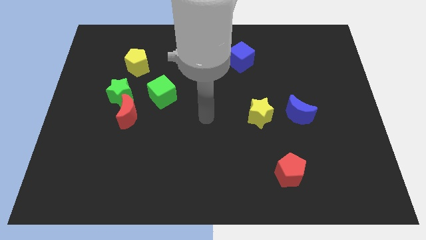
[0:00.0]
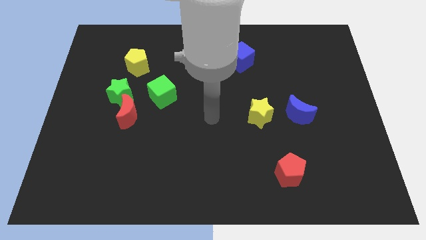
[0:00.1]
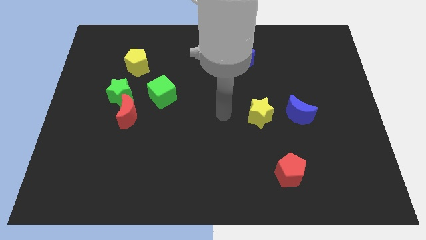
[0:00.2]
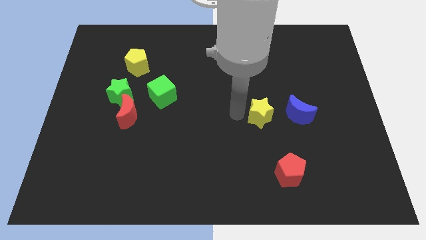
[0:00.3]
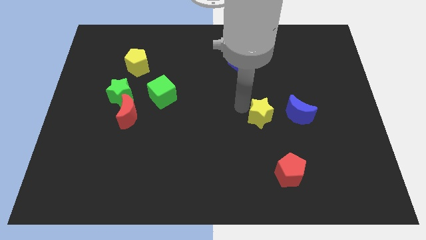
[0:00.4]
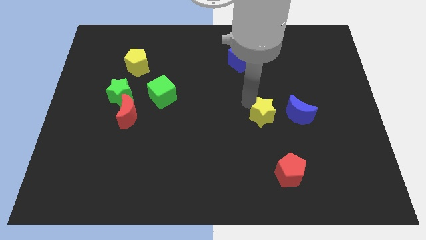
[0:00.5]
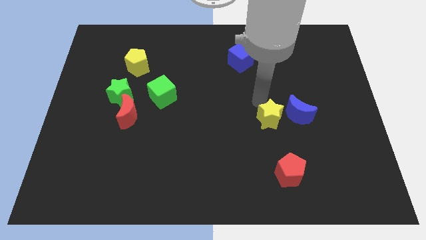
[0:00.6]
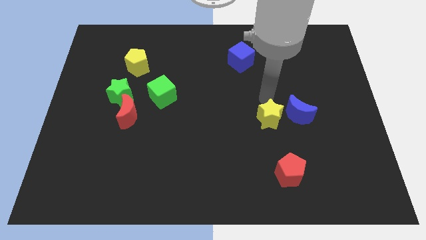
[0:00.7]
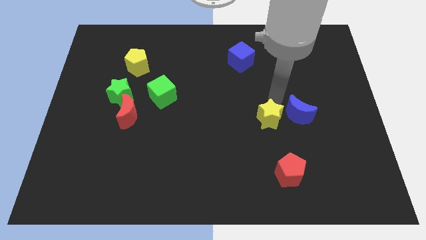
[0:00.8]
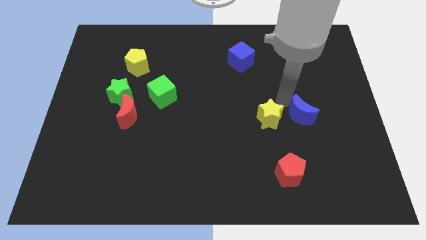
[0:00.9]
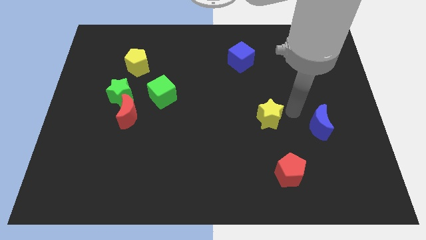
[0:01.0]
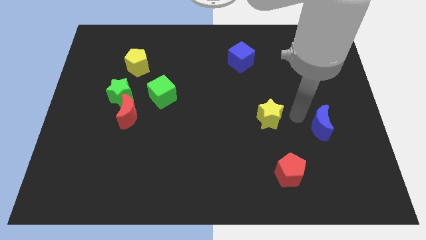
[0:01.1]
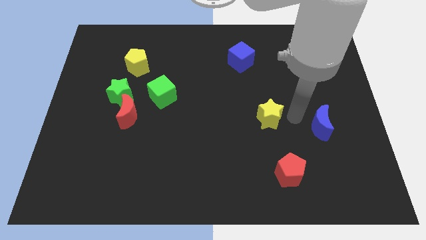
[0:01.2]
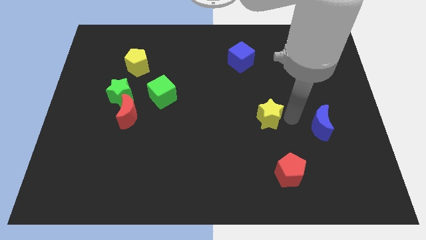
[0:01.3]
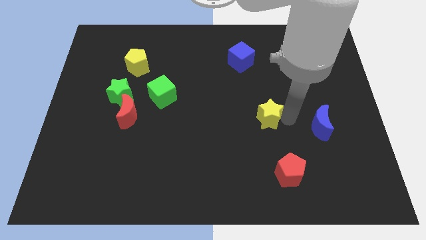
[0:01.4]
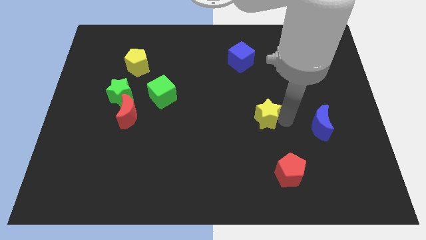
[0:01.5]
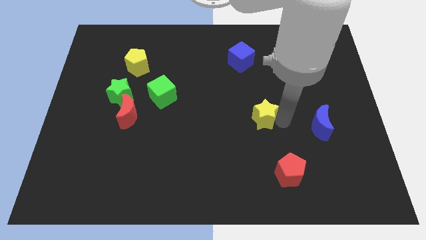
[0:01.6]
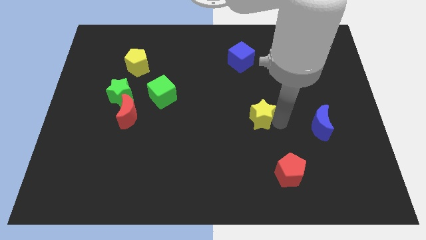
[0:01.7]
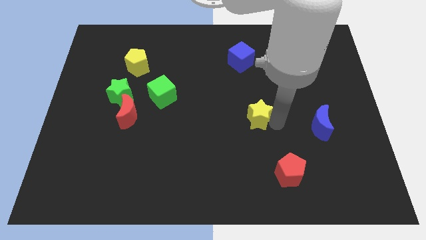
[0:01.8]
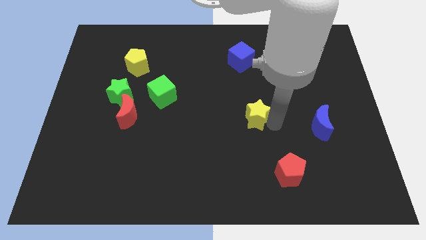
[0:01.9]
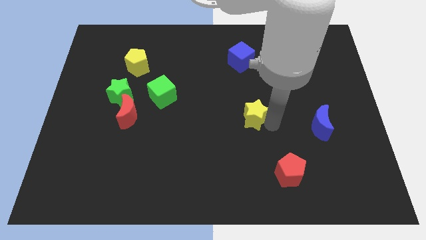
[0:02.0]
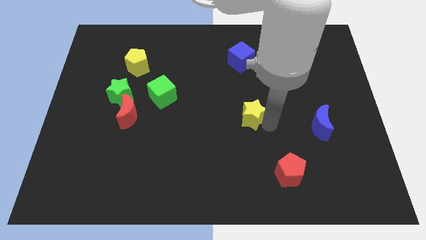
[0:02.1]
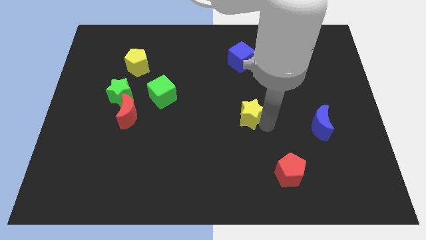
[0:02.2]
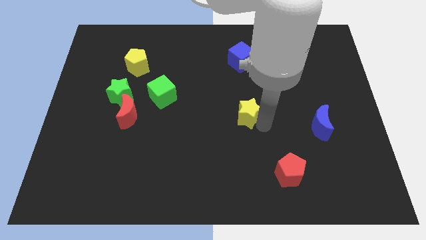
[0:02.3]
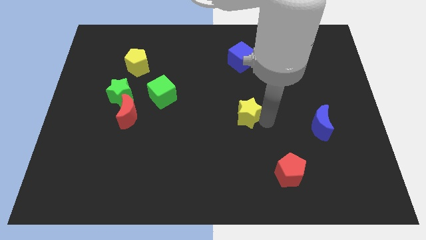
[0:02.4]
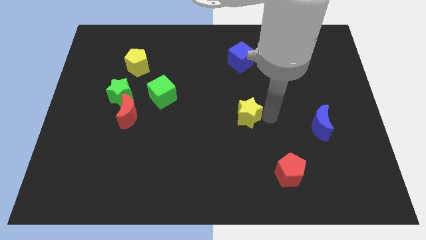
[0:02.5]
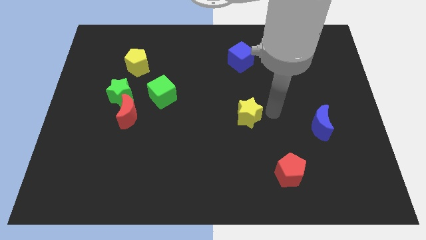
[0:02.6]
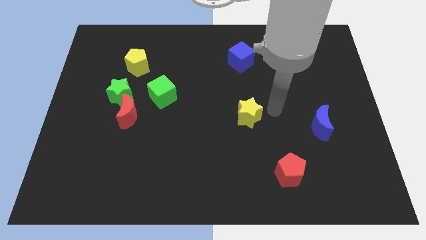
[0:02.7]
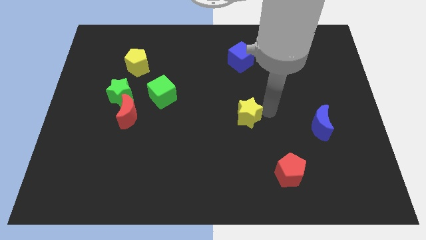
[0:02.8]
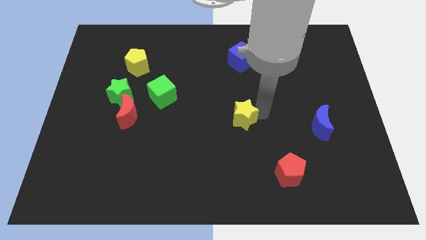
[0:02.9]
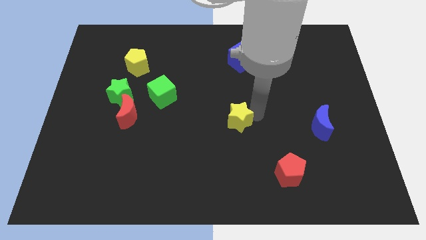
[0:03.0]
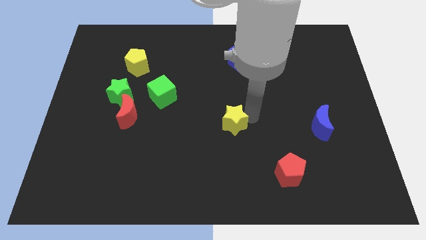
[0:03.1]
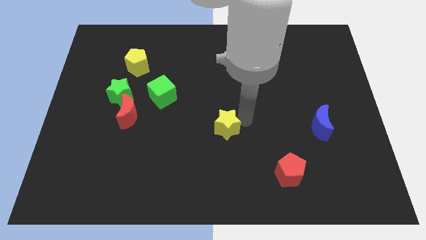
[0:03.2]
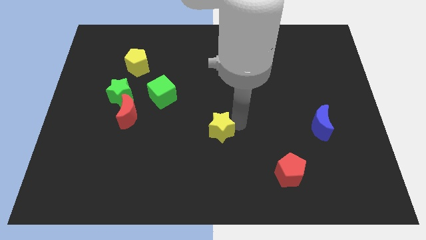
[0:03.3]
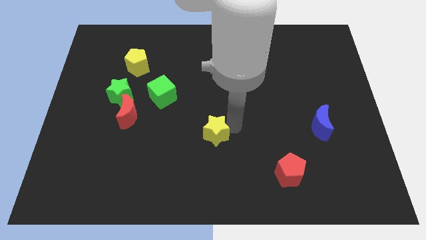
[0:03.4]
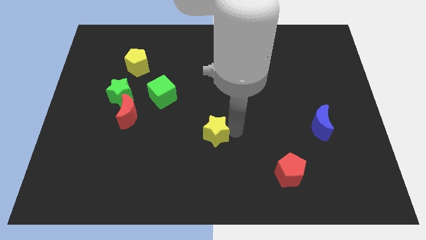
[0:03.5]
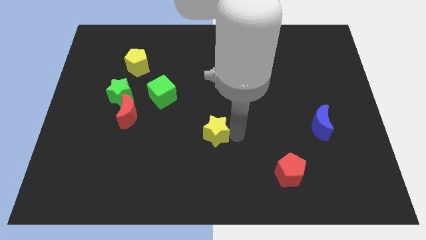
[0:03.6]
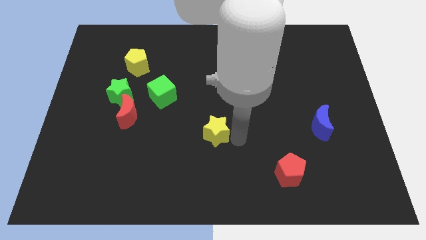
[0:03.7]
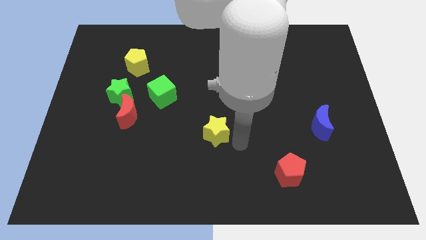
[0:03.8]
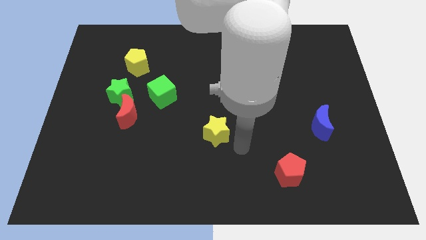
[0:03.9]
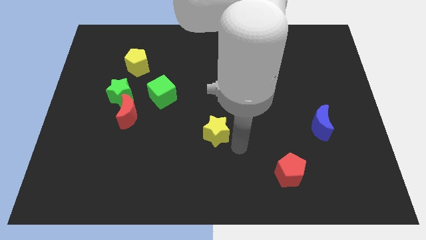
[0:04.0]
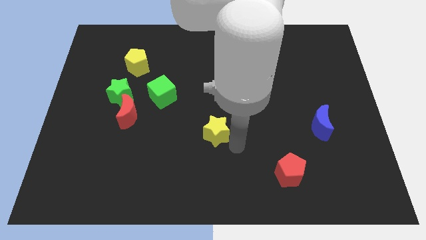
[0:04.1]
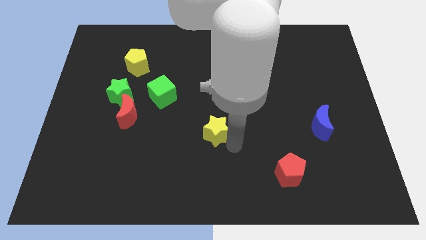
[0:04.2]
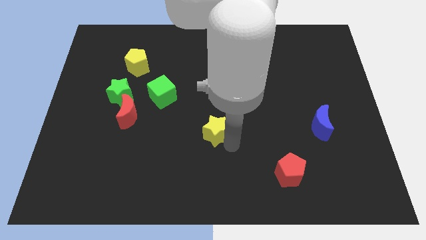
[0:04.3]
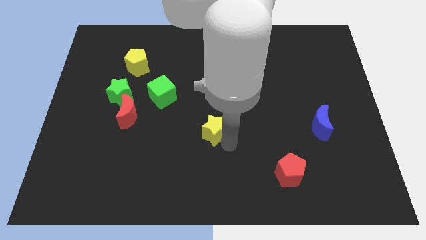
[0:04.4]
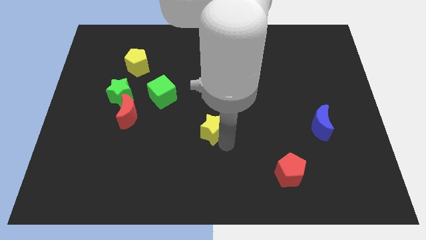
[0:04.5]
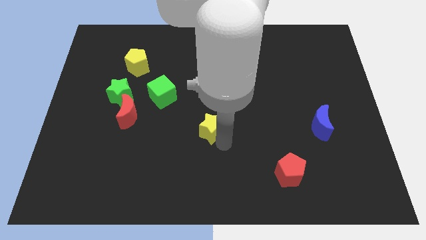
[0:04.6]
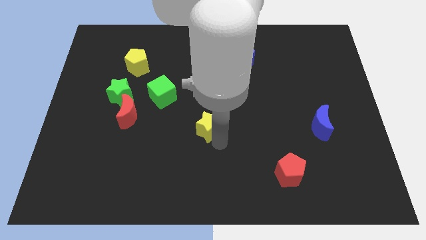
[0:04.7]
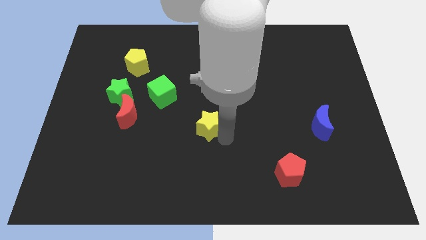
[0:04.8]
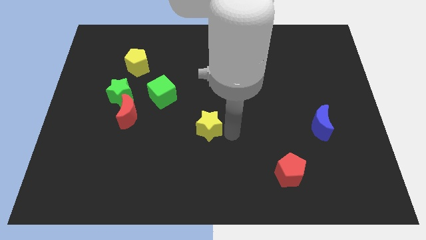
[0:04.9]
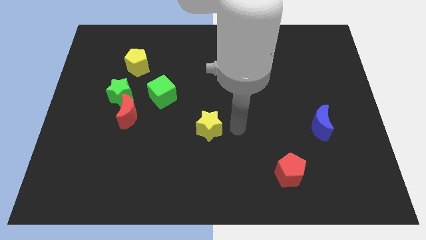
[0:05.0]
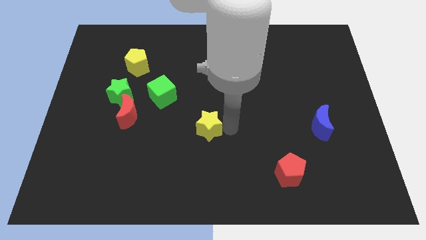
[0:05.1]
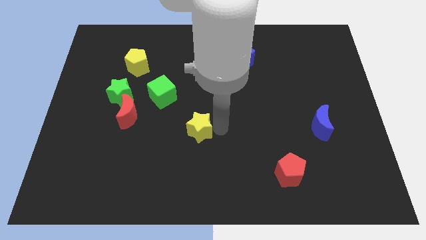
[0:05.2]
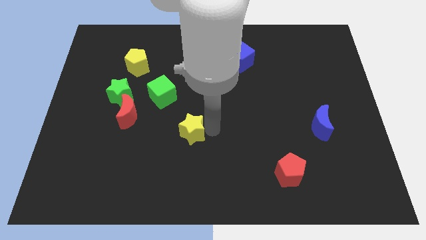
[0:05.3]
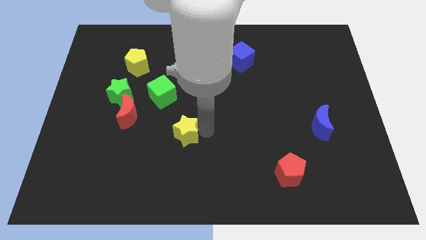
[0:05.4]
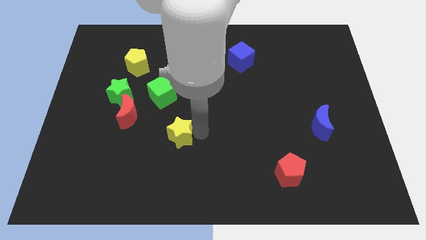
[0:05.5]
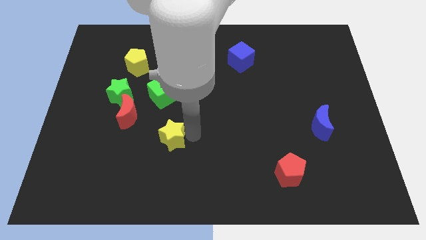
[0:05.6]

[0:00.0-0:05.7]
put the yellow star diagonally down and to the right of the red moon

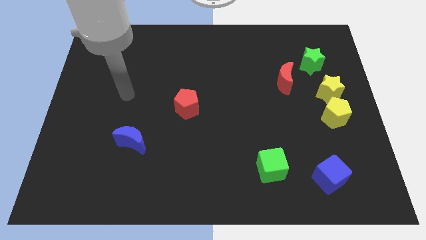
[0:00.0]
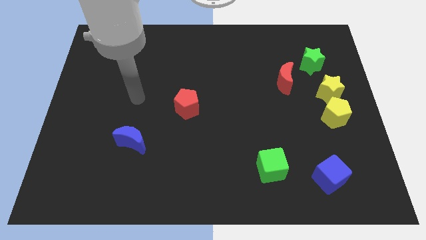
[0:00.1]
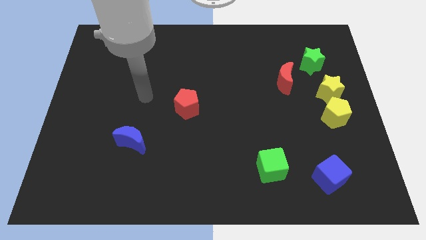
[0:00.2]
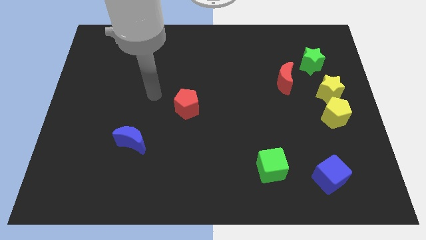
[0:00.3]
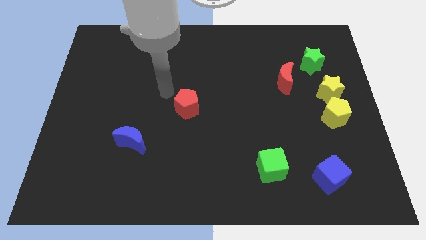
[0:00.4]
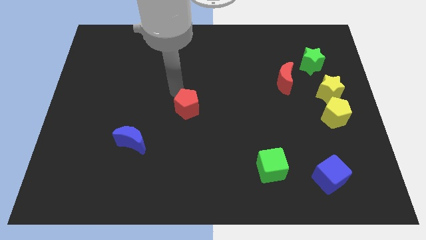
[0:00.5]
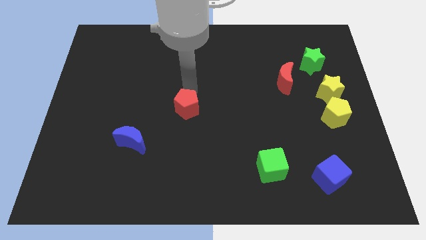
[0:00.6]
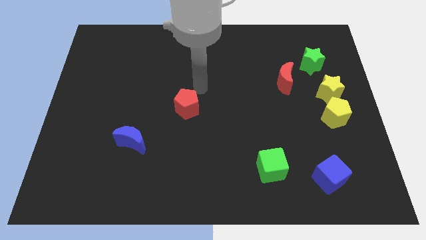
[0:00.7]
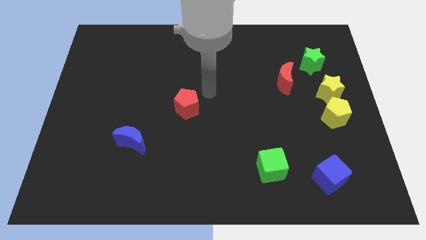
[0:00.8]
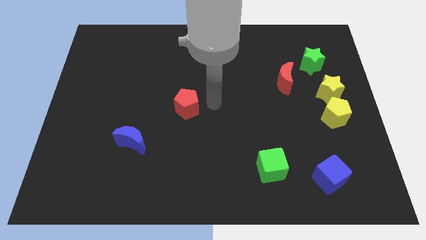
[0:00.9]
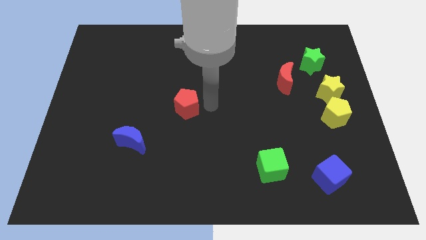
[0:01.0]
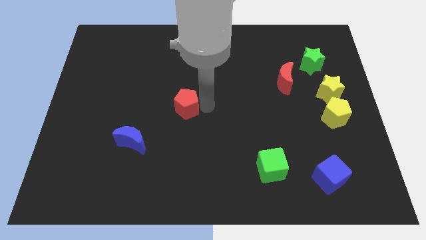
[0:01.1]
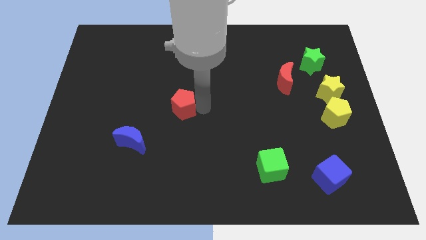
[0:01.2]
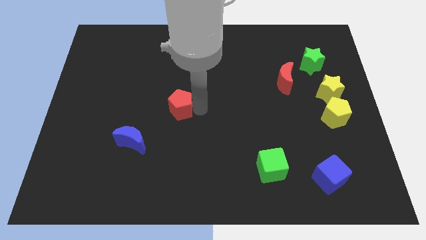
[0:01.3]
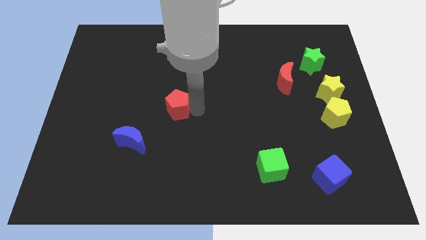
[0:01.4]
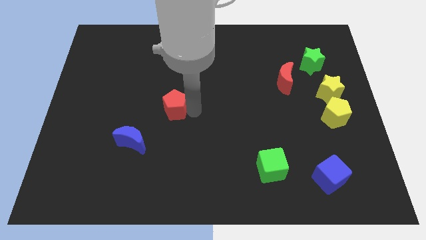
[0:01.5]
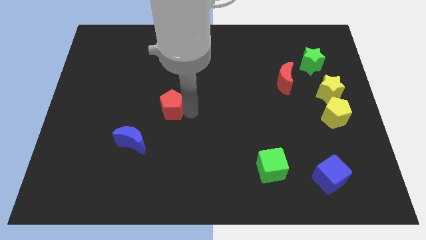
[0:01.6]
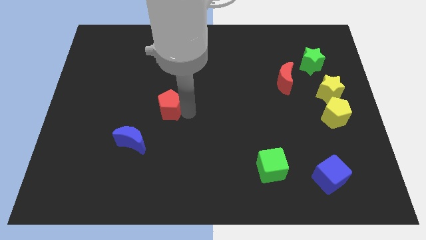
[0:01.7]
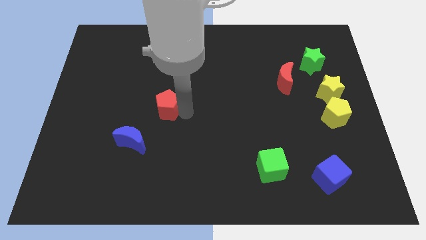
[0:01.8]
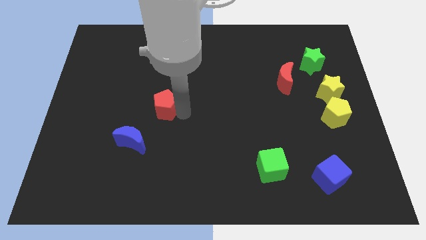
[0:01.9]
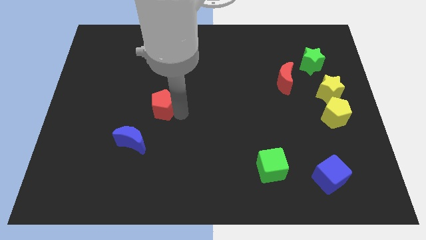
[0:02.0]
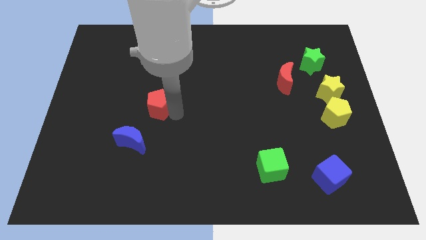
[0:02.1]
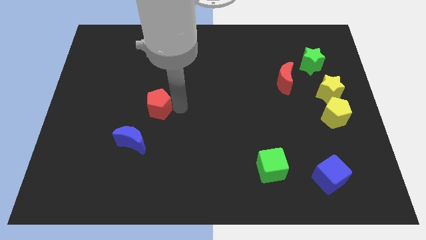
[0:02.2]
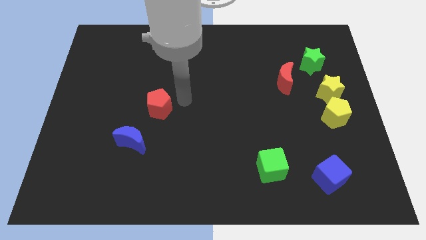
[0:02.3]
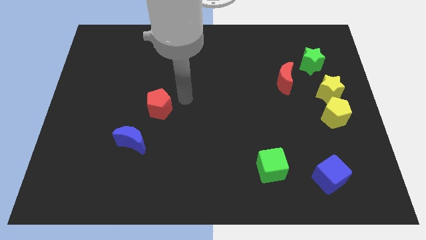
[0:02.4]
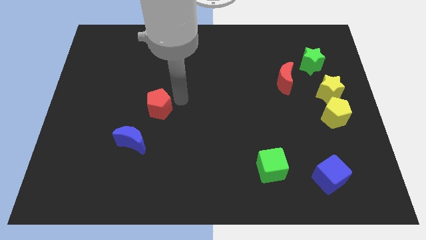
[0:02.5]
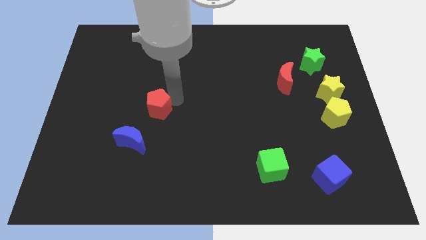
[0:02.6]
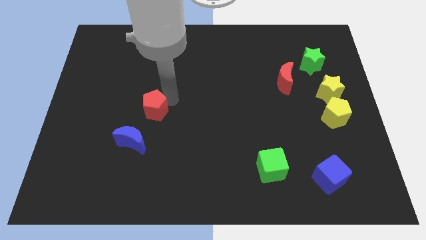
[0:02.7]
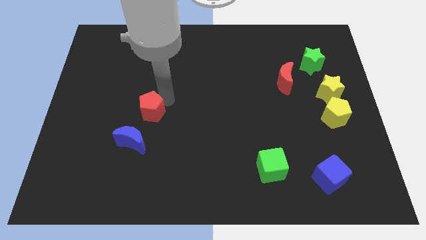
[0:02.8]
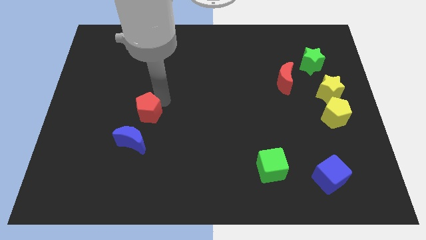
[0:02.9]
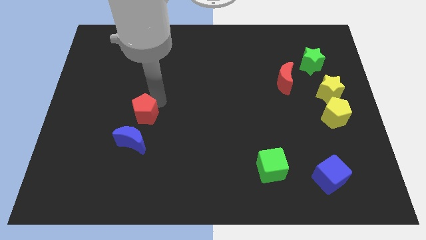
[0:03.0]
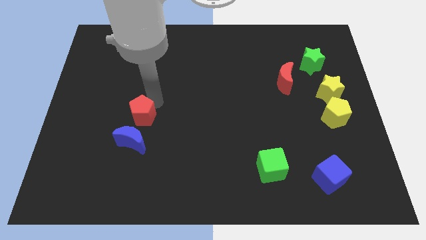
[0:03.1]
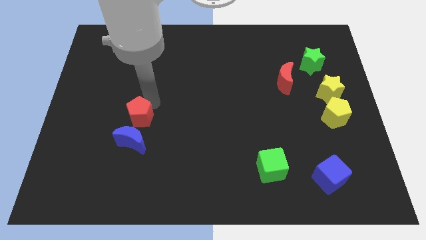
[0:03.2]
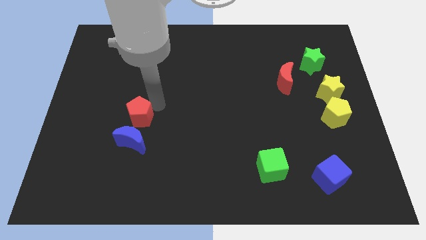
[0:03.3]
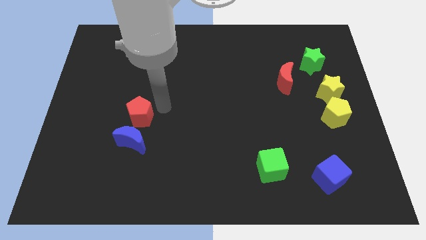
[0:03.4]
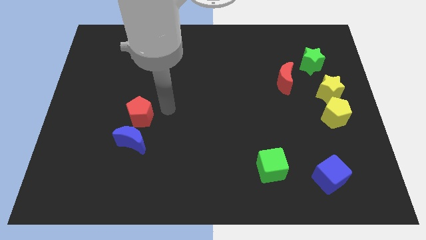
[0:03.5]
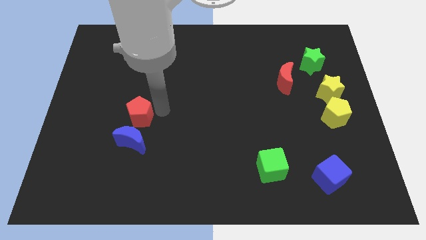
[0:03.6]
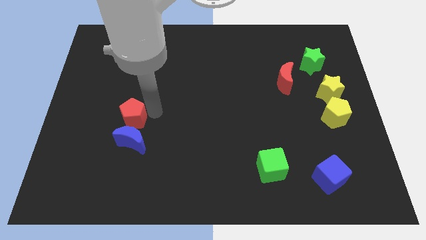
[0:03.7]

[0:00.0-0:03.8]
put the red pentagon to the top left of the blue moon
